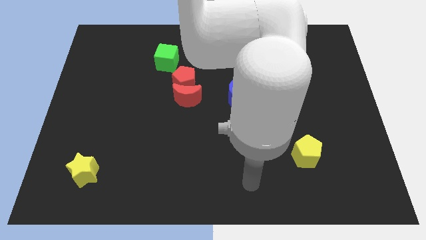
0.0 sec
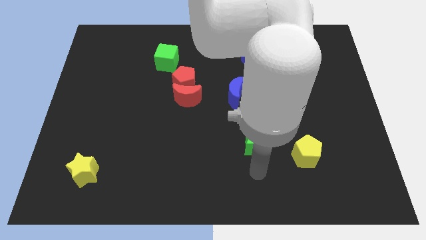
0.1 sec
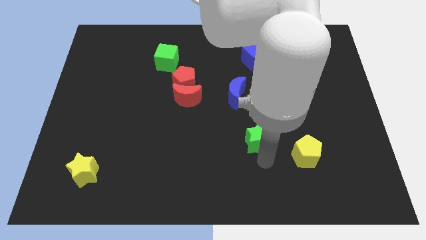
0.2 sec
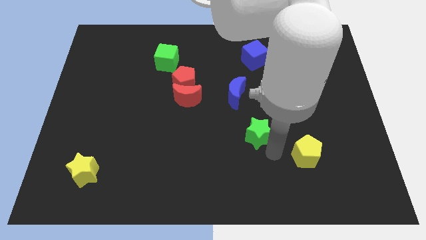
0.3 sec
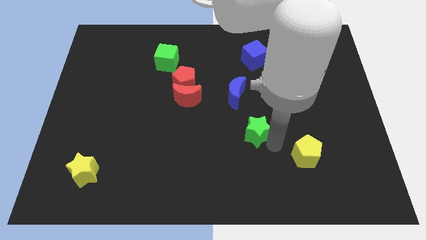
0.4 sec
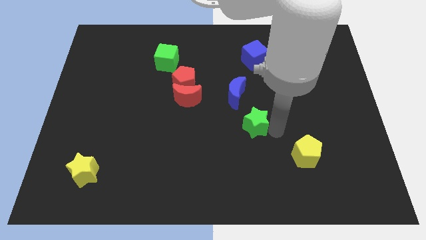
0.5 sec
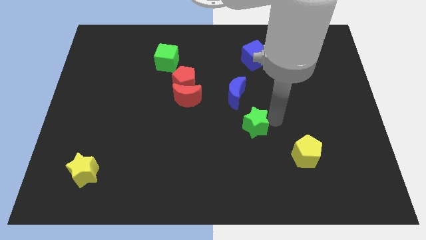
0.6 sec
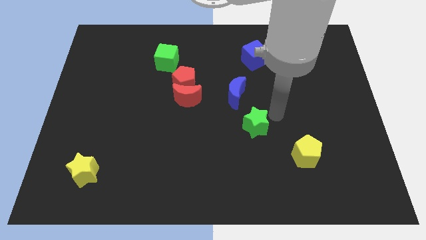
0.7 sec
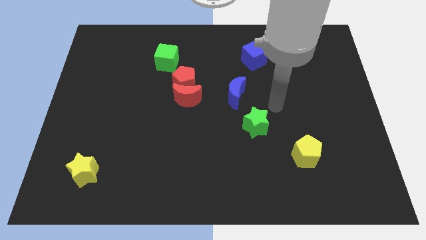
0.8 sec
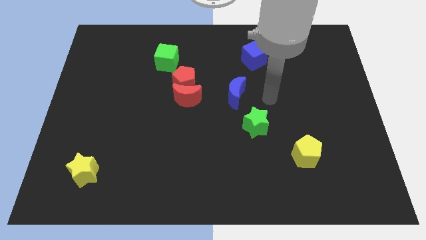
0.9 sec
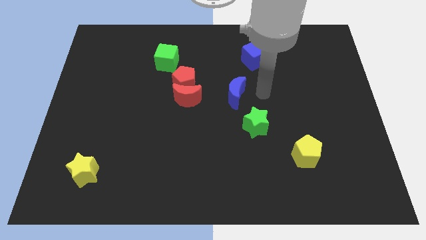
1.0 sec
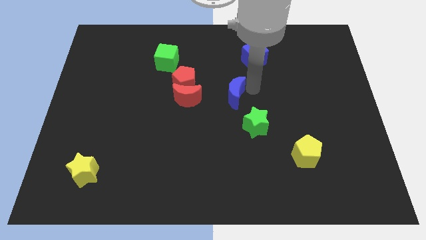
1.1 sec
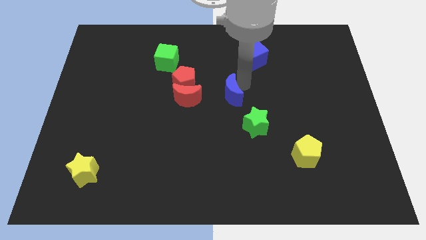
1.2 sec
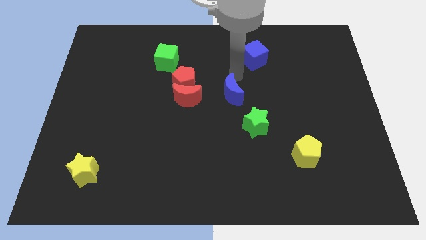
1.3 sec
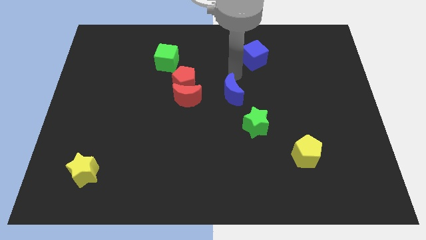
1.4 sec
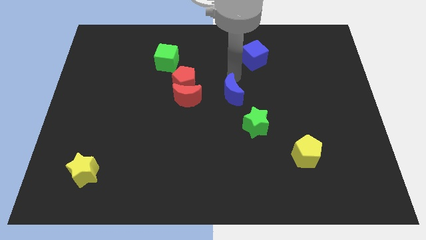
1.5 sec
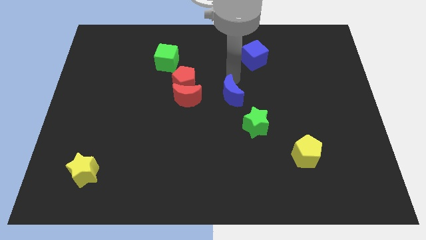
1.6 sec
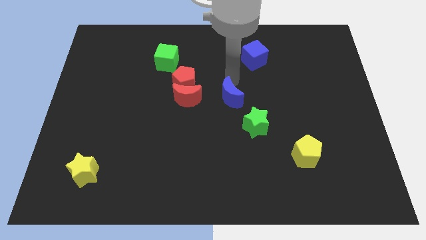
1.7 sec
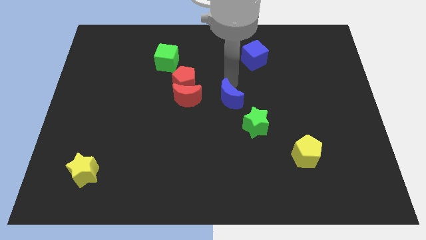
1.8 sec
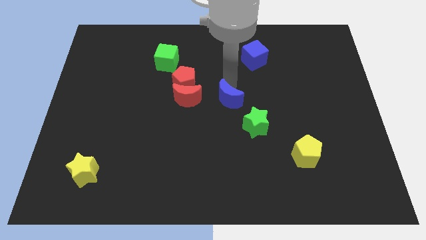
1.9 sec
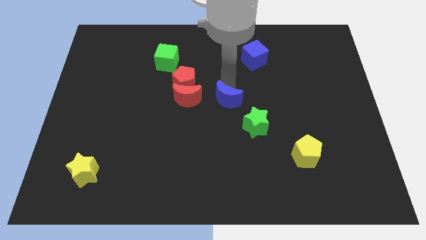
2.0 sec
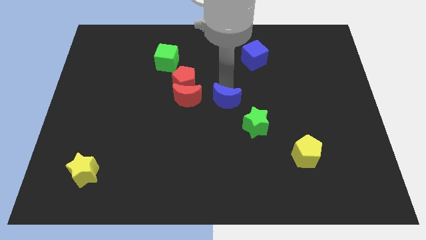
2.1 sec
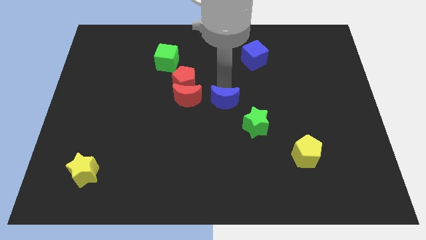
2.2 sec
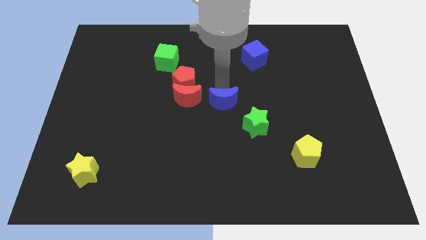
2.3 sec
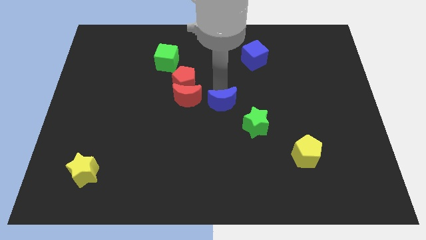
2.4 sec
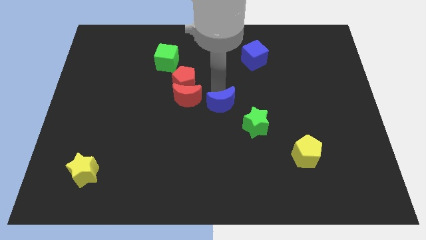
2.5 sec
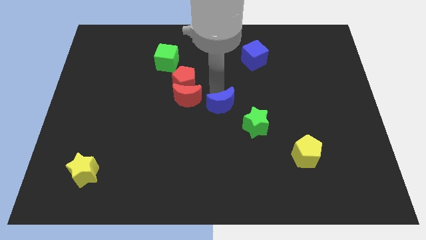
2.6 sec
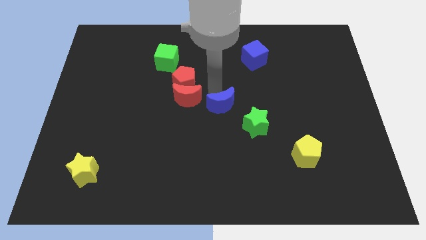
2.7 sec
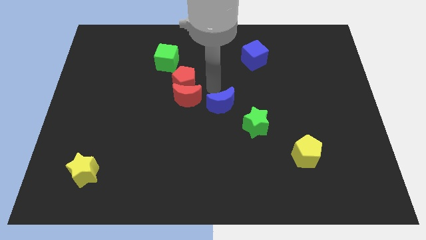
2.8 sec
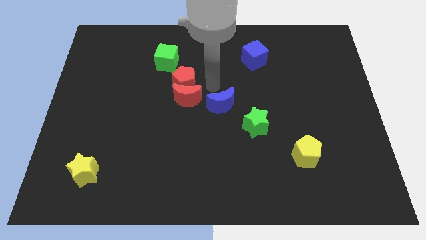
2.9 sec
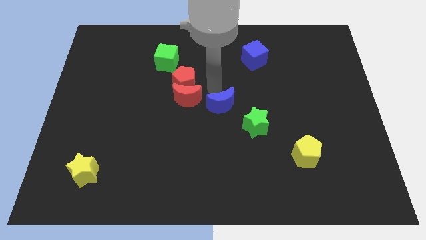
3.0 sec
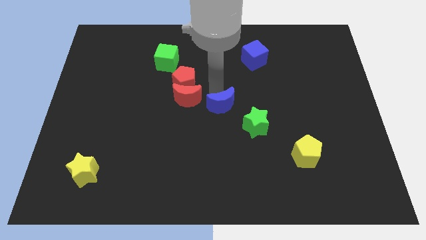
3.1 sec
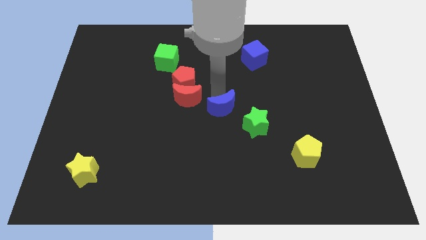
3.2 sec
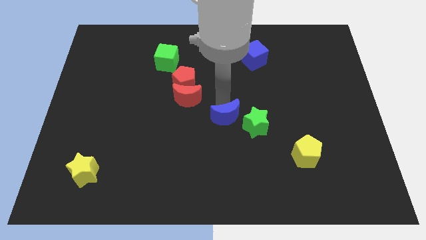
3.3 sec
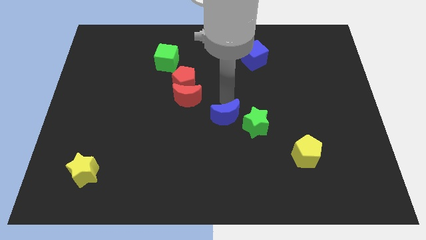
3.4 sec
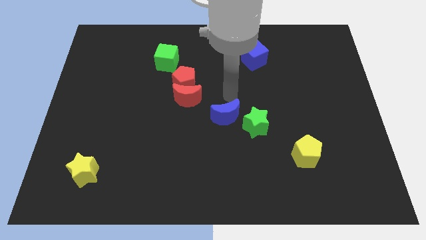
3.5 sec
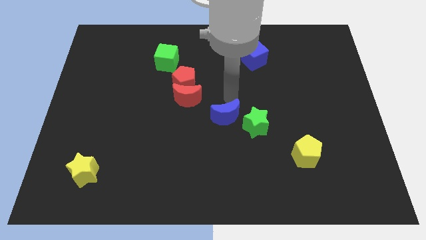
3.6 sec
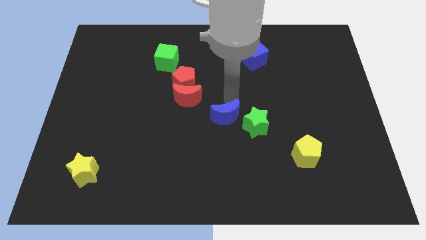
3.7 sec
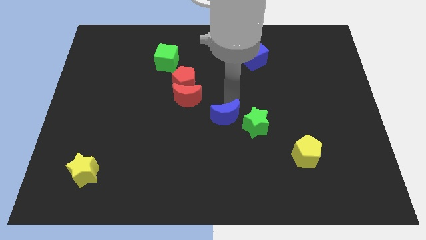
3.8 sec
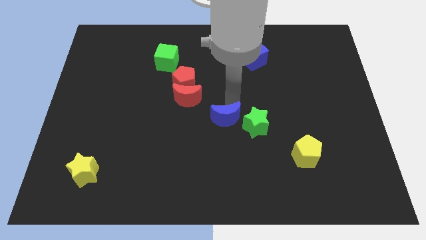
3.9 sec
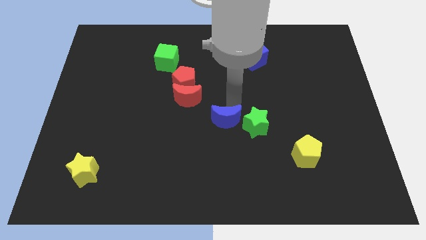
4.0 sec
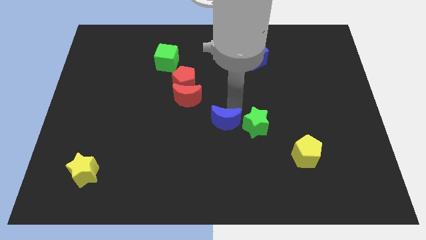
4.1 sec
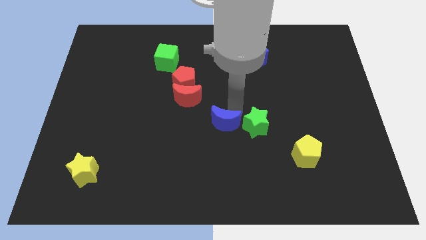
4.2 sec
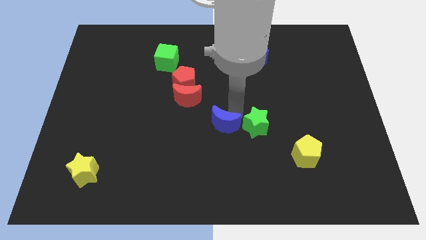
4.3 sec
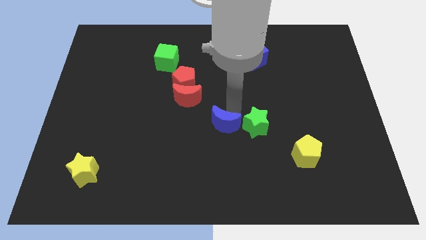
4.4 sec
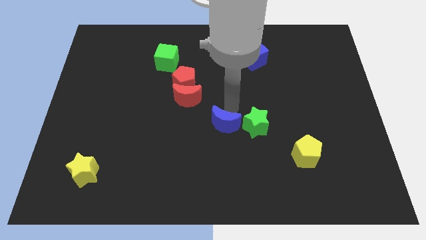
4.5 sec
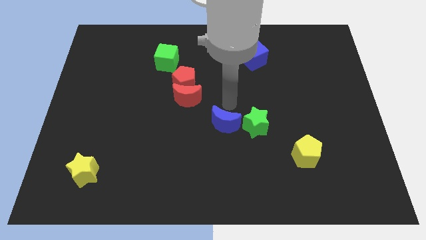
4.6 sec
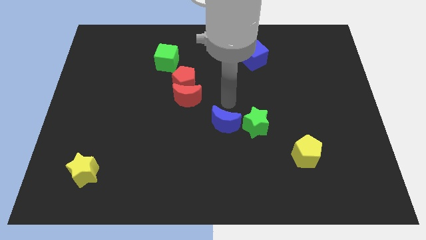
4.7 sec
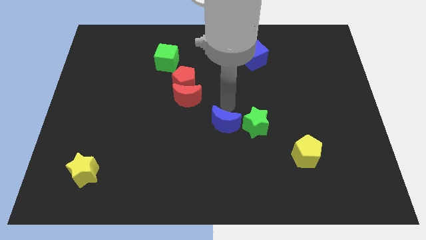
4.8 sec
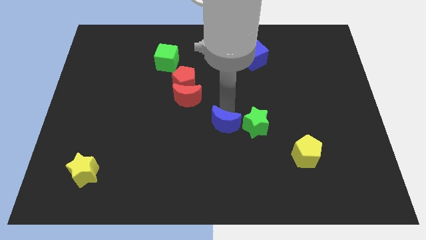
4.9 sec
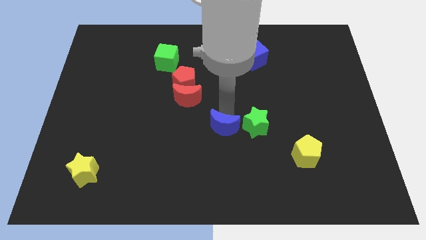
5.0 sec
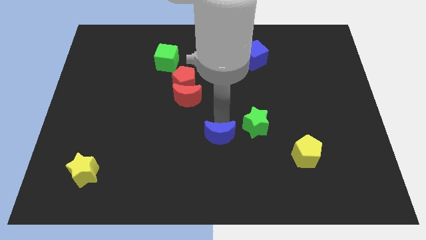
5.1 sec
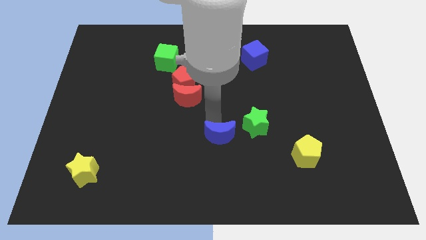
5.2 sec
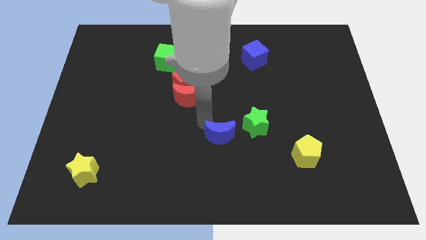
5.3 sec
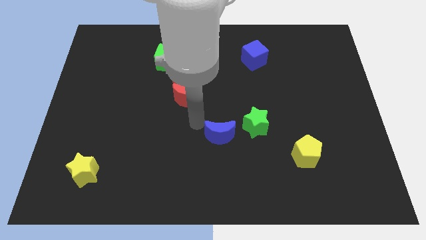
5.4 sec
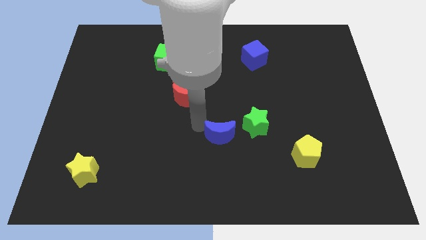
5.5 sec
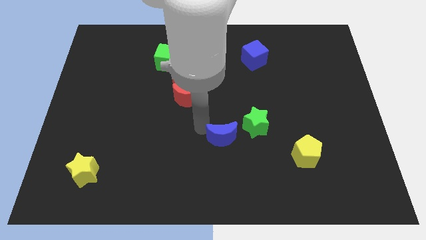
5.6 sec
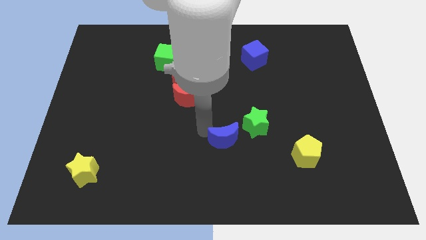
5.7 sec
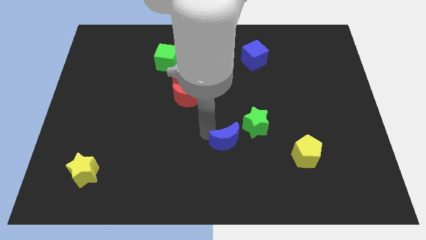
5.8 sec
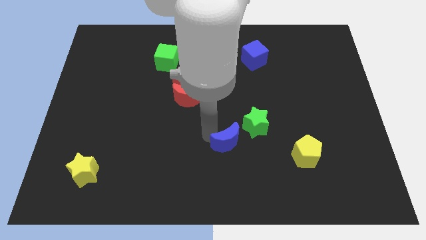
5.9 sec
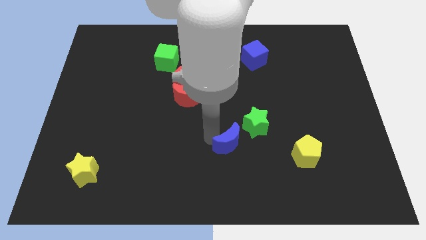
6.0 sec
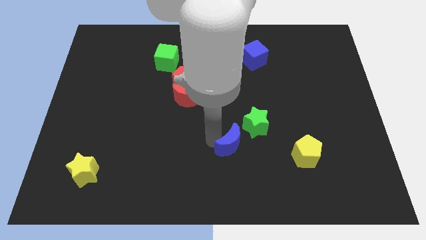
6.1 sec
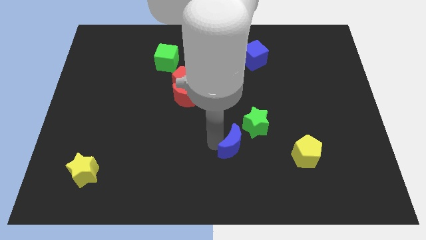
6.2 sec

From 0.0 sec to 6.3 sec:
slide the blue moon to the left of the yellow pentagon
